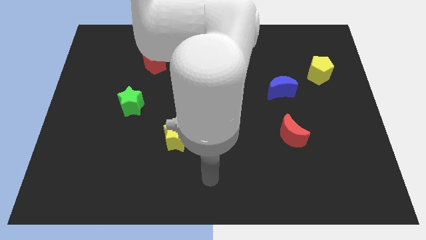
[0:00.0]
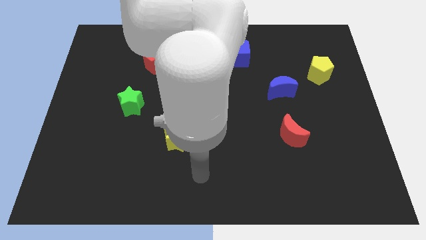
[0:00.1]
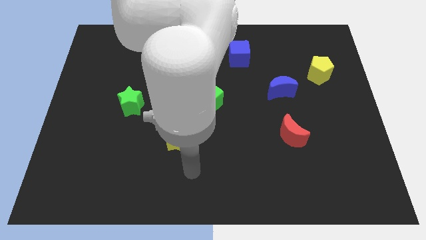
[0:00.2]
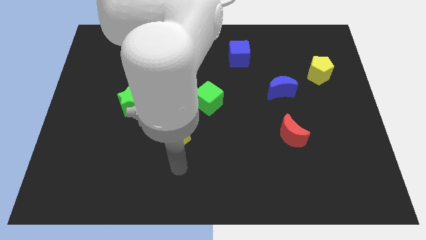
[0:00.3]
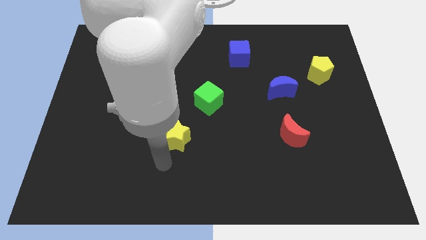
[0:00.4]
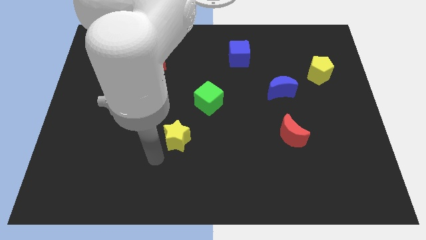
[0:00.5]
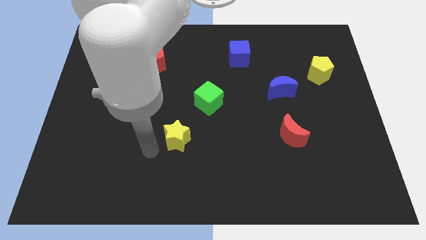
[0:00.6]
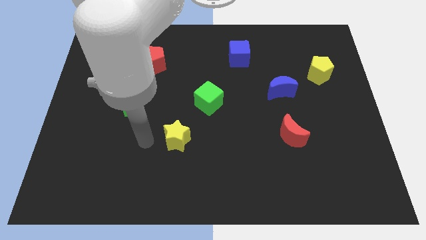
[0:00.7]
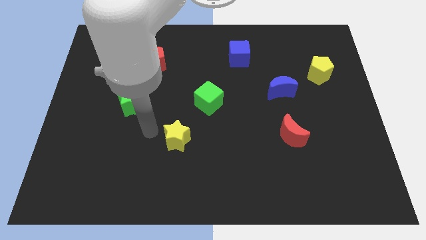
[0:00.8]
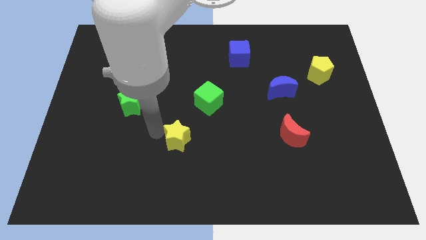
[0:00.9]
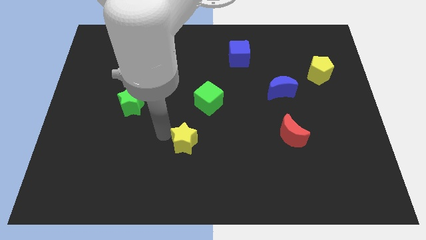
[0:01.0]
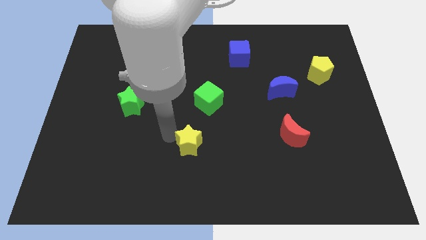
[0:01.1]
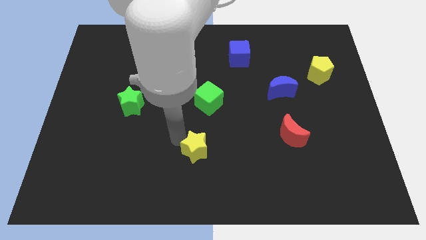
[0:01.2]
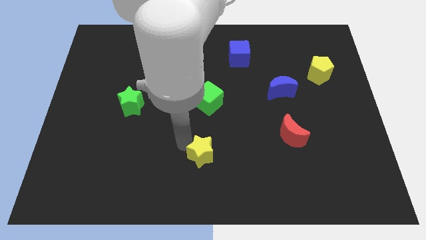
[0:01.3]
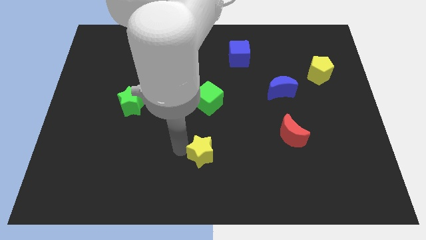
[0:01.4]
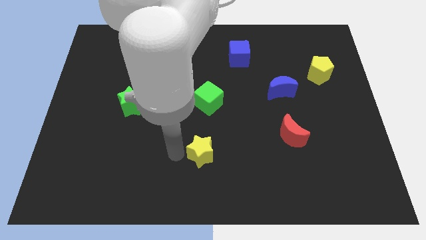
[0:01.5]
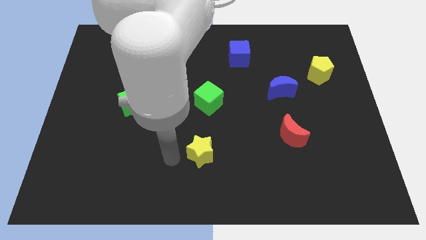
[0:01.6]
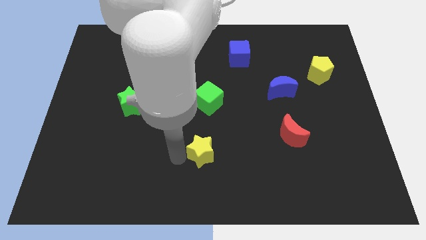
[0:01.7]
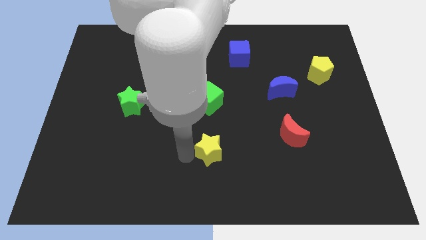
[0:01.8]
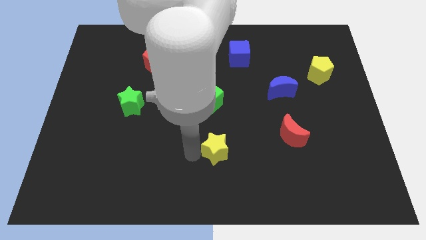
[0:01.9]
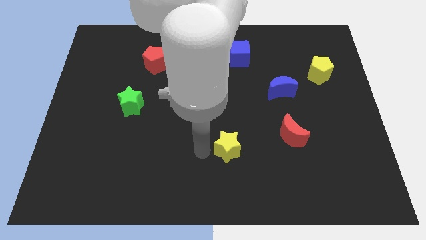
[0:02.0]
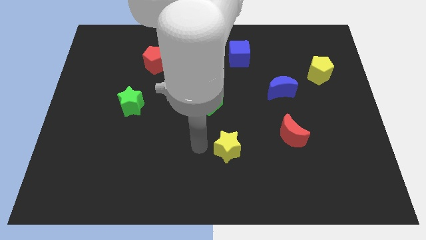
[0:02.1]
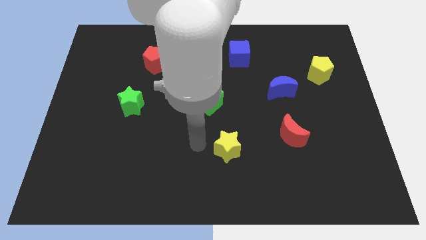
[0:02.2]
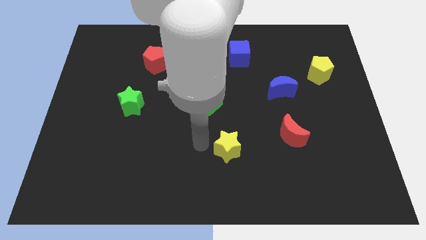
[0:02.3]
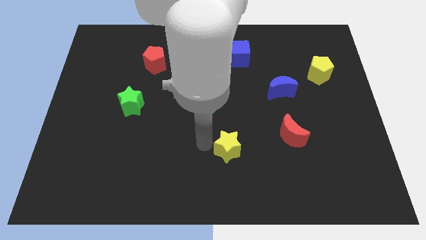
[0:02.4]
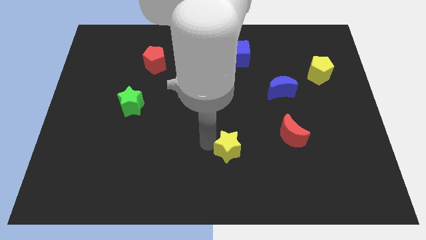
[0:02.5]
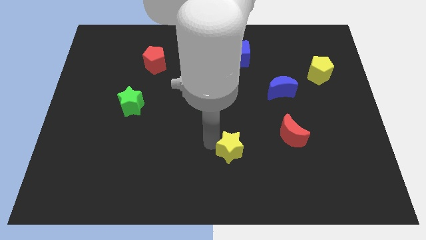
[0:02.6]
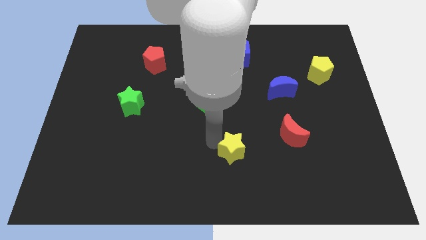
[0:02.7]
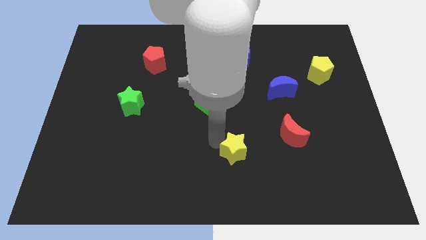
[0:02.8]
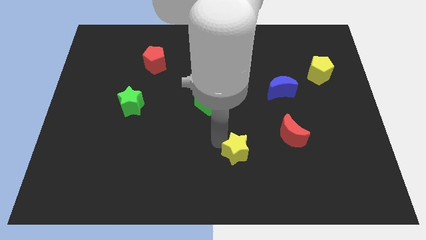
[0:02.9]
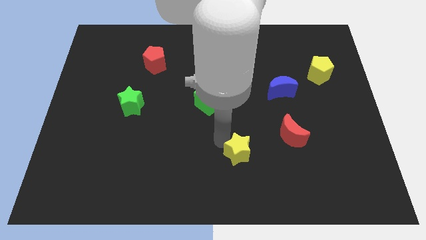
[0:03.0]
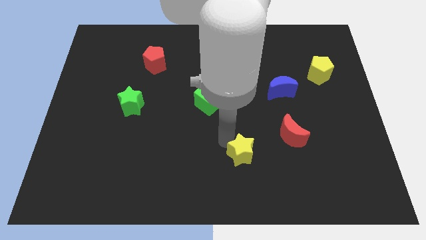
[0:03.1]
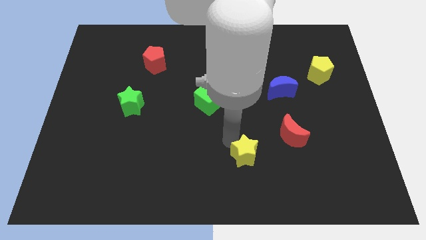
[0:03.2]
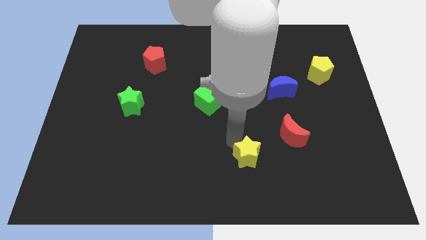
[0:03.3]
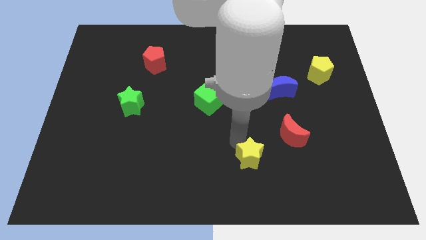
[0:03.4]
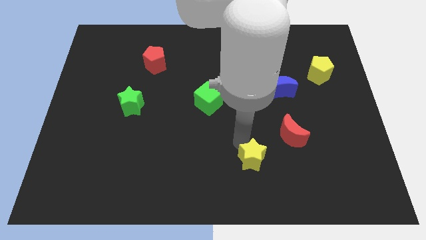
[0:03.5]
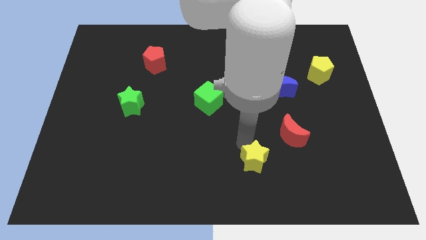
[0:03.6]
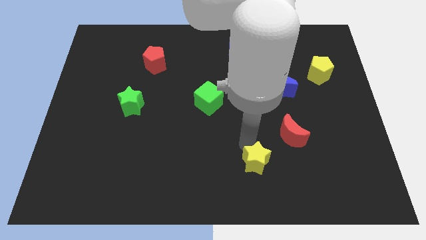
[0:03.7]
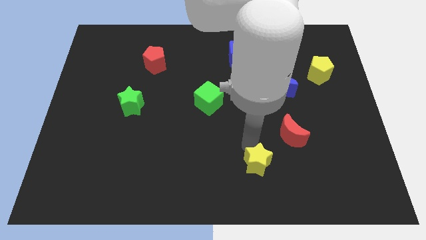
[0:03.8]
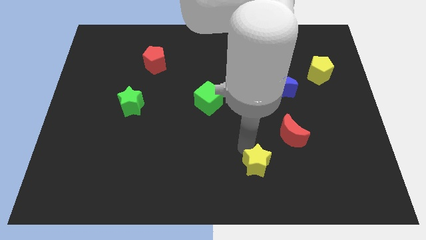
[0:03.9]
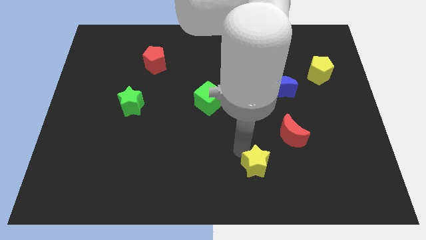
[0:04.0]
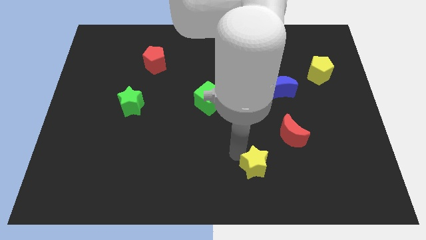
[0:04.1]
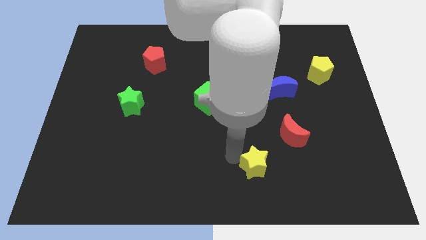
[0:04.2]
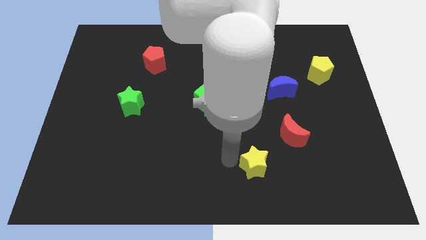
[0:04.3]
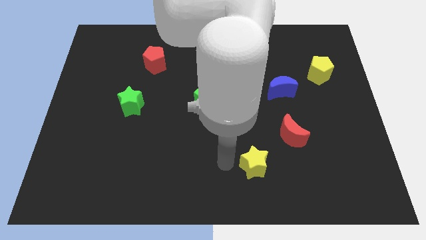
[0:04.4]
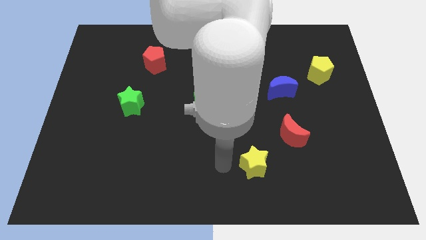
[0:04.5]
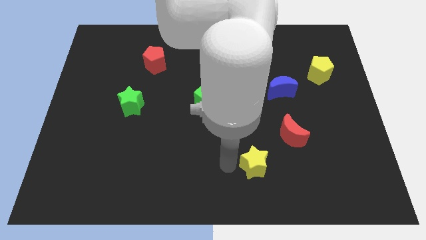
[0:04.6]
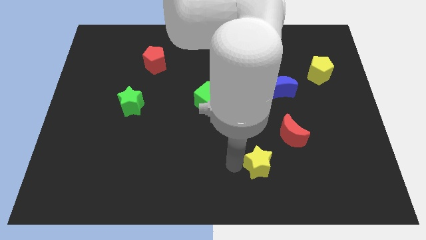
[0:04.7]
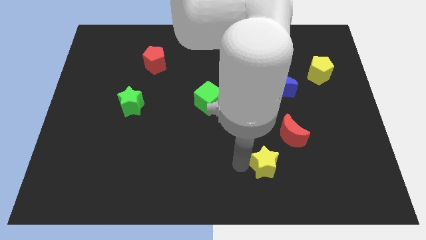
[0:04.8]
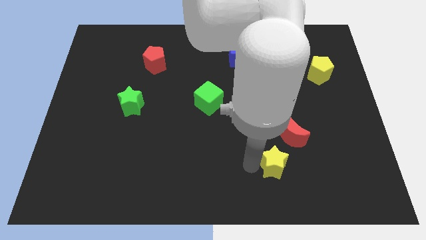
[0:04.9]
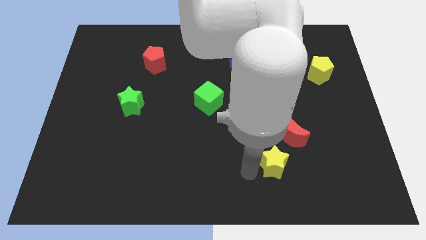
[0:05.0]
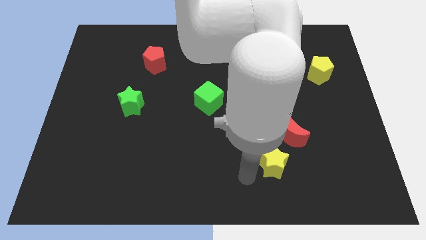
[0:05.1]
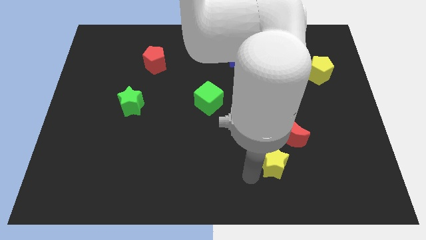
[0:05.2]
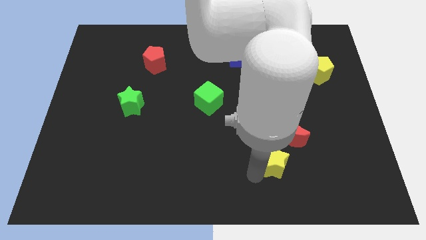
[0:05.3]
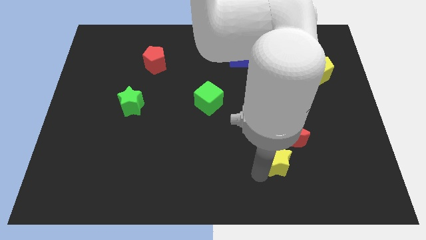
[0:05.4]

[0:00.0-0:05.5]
slide the yellow star to the right

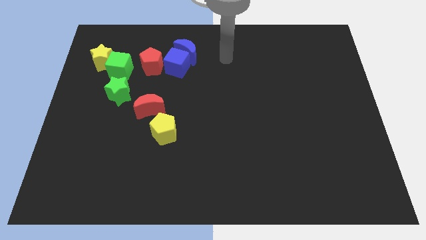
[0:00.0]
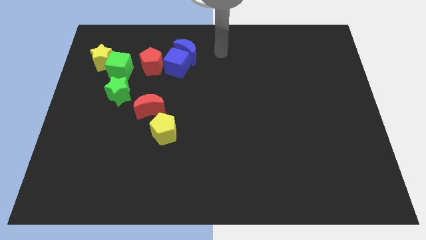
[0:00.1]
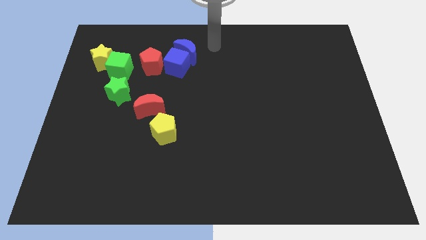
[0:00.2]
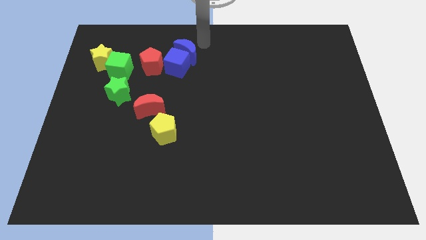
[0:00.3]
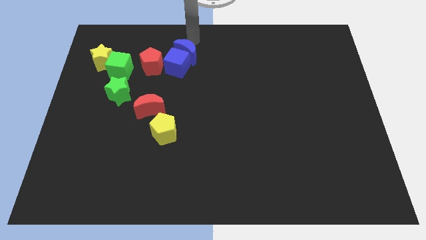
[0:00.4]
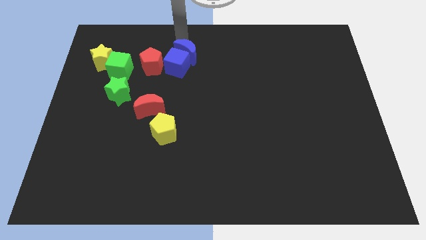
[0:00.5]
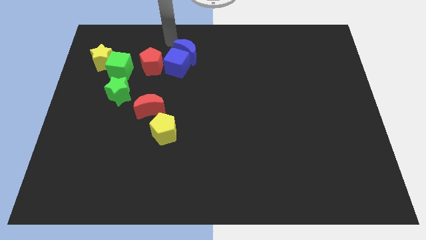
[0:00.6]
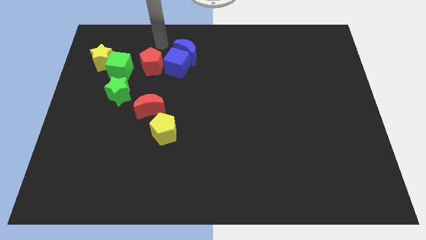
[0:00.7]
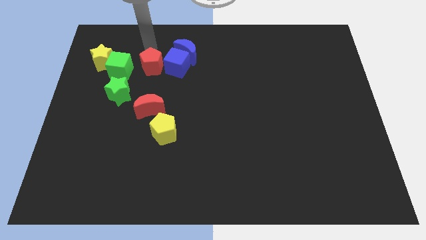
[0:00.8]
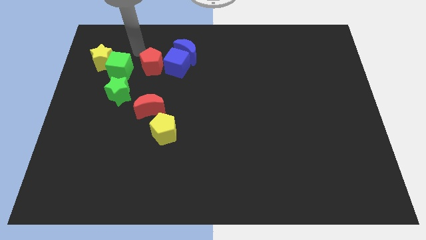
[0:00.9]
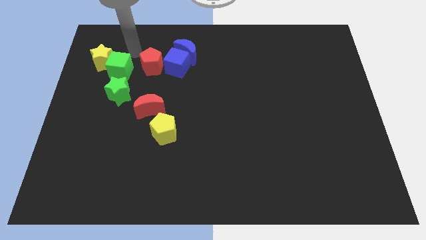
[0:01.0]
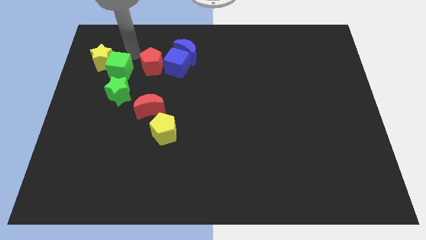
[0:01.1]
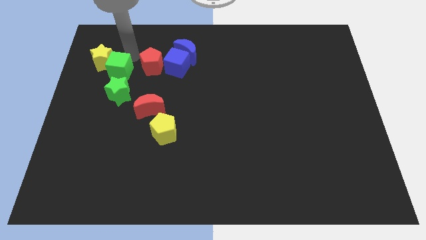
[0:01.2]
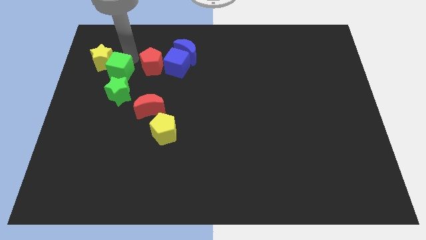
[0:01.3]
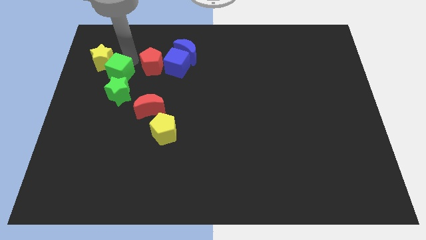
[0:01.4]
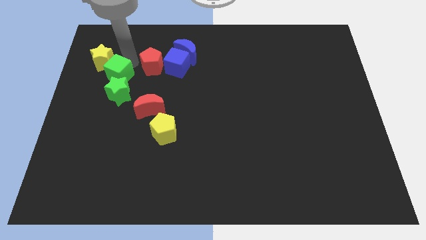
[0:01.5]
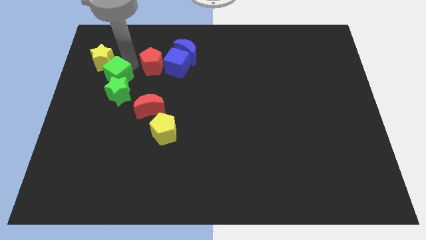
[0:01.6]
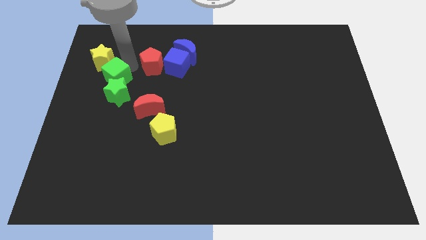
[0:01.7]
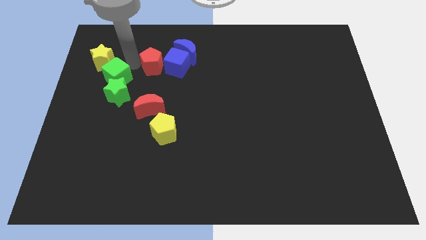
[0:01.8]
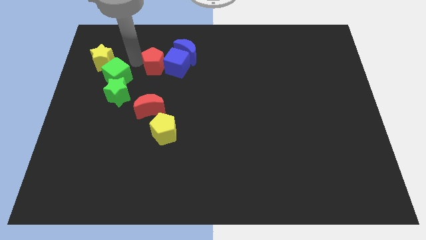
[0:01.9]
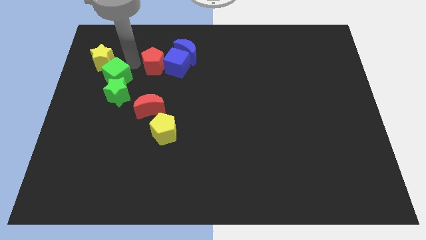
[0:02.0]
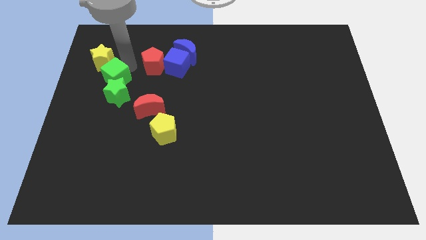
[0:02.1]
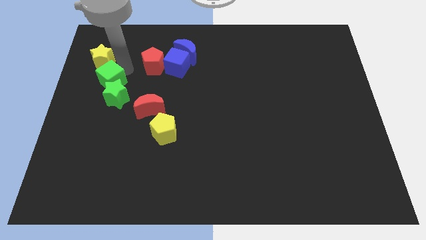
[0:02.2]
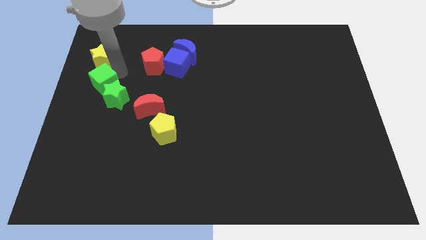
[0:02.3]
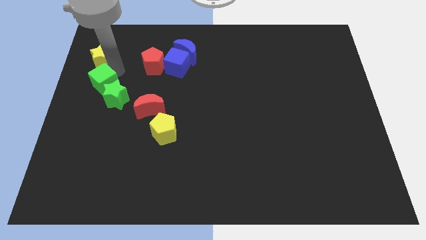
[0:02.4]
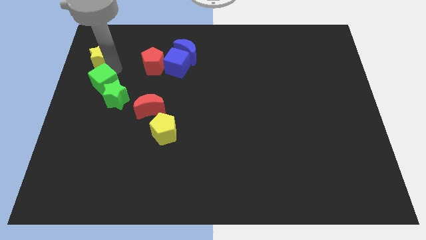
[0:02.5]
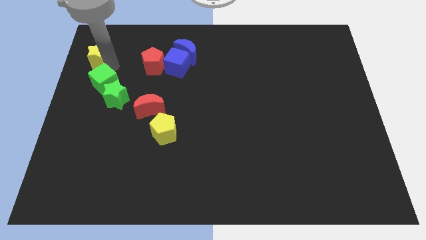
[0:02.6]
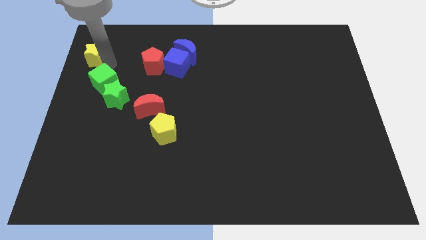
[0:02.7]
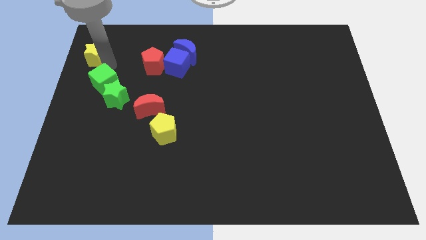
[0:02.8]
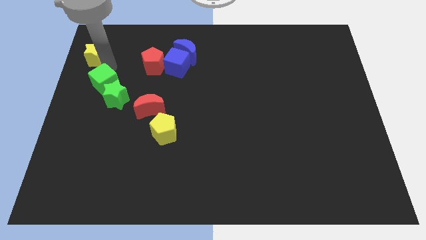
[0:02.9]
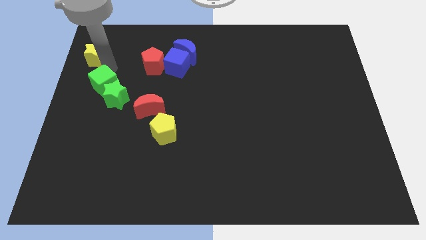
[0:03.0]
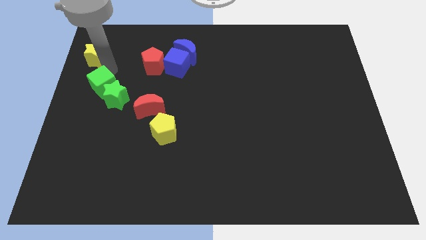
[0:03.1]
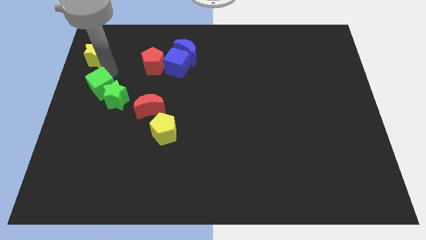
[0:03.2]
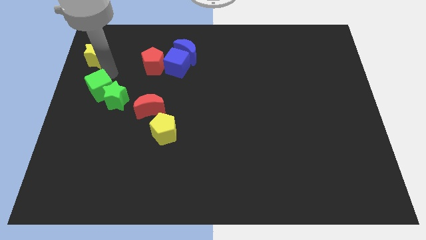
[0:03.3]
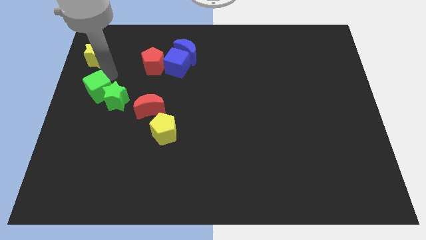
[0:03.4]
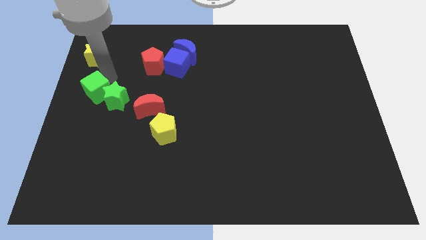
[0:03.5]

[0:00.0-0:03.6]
push the green cube somewhat downwards
